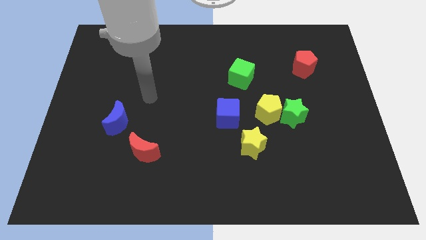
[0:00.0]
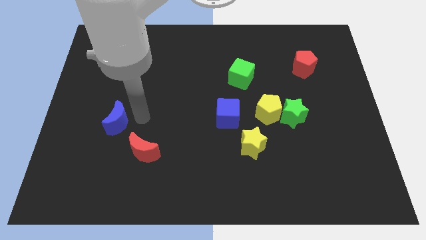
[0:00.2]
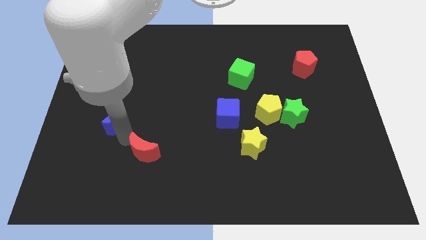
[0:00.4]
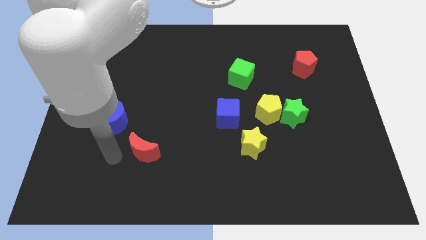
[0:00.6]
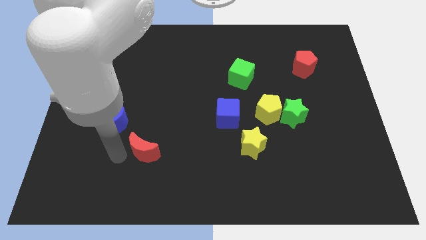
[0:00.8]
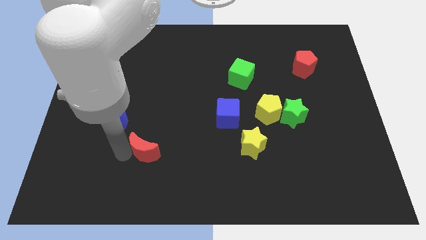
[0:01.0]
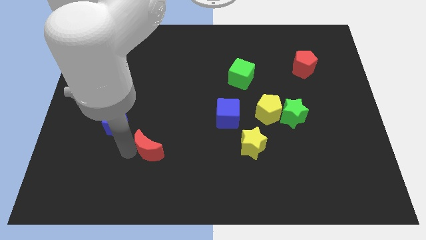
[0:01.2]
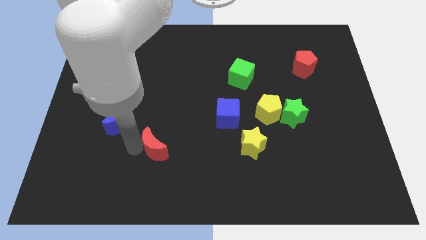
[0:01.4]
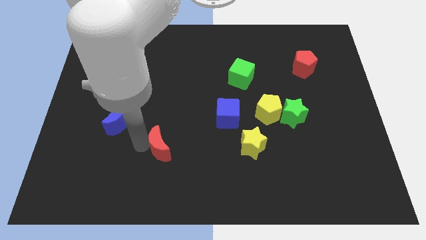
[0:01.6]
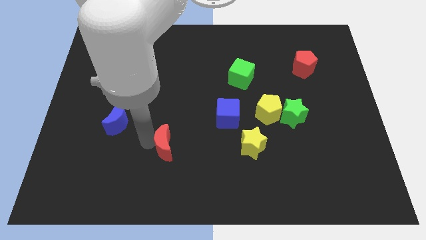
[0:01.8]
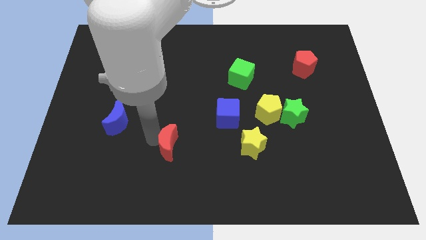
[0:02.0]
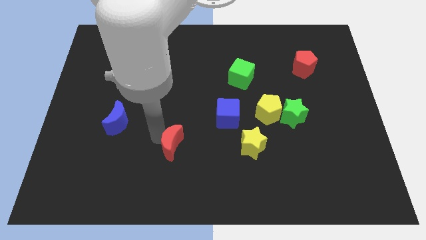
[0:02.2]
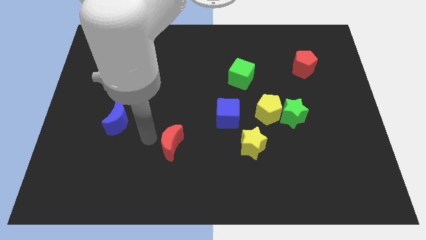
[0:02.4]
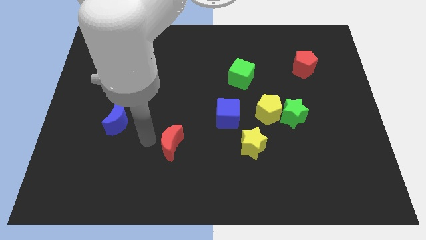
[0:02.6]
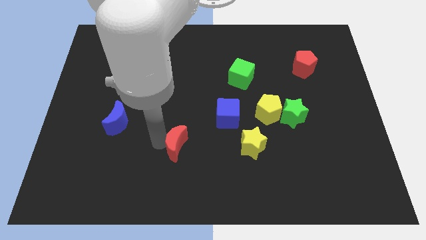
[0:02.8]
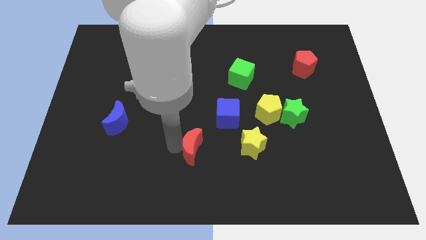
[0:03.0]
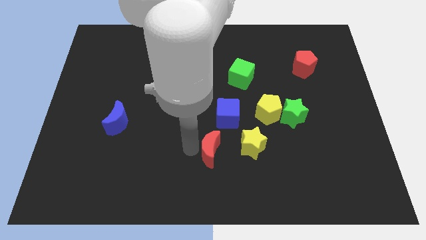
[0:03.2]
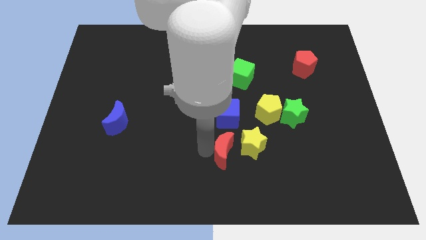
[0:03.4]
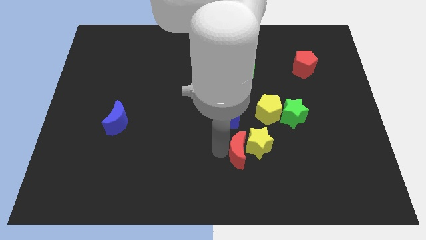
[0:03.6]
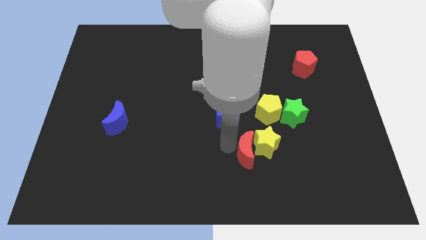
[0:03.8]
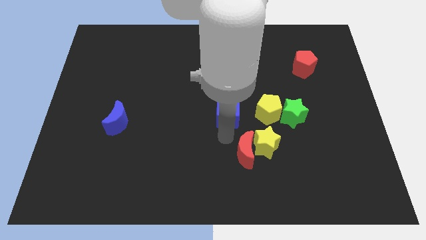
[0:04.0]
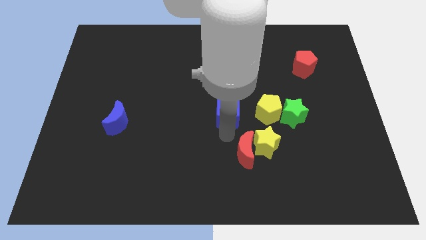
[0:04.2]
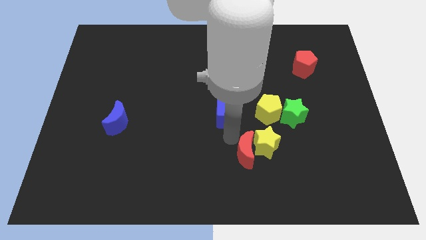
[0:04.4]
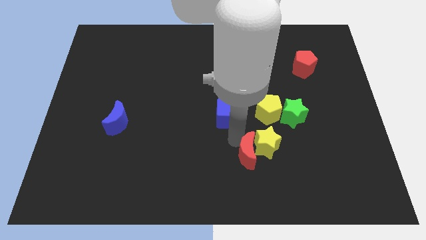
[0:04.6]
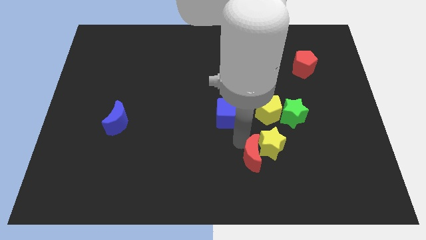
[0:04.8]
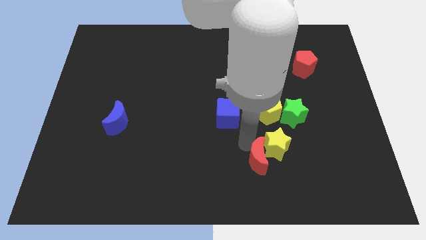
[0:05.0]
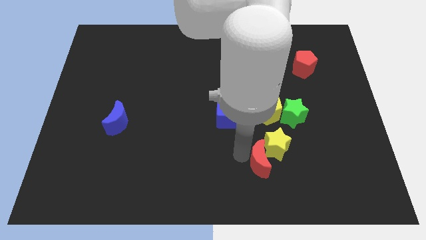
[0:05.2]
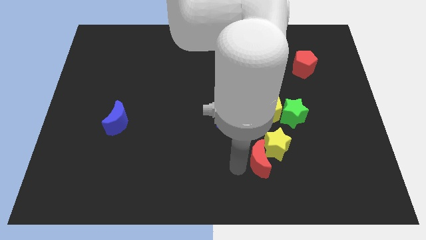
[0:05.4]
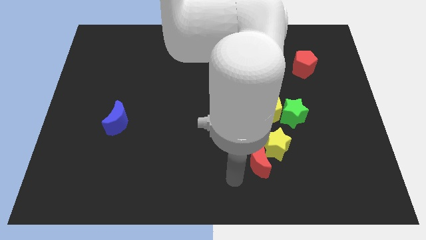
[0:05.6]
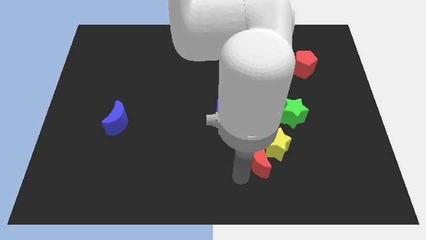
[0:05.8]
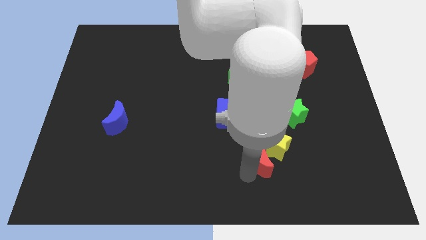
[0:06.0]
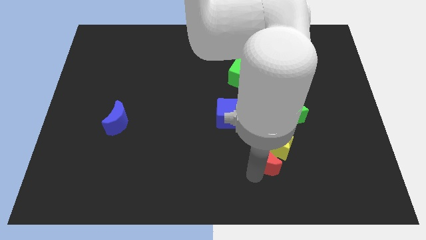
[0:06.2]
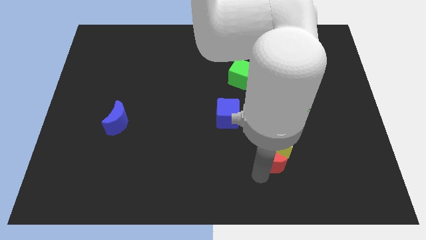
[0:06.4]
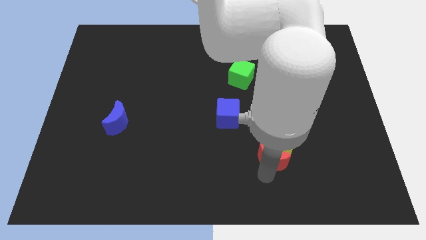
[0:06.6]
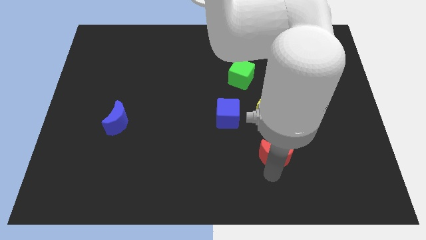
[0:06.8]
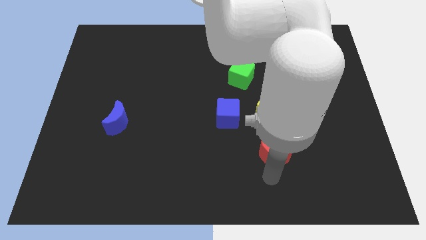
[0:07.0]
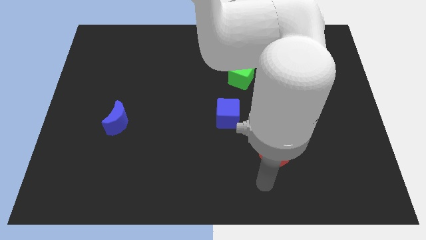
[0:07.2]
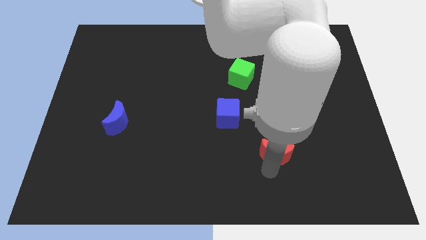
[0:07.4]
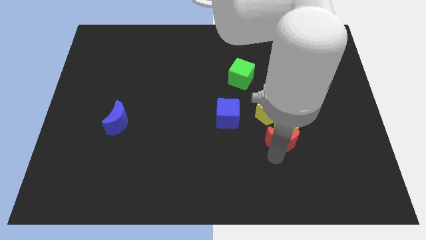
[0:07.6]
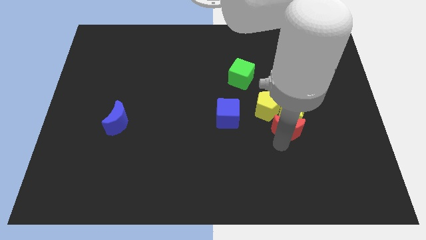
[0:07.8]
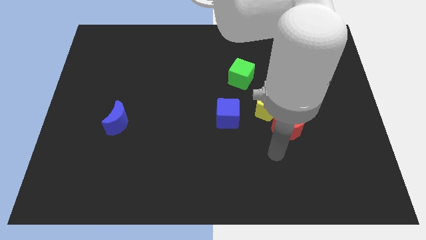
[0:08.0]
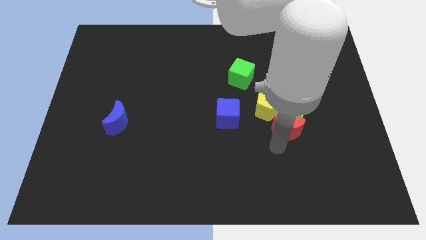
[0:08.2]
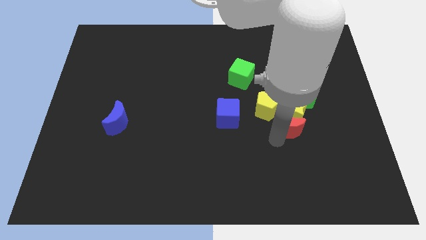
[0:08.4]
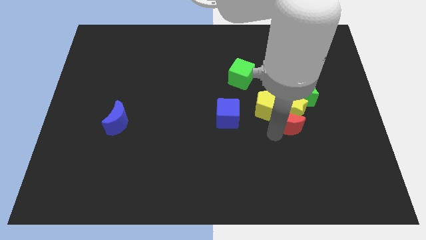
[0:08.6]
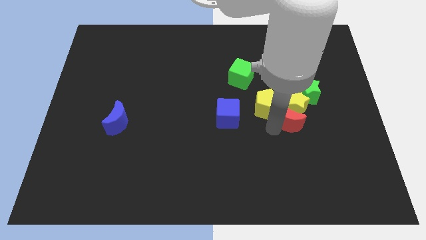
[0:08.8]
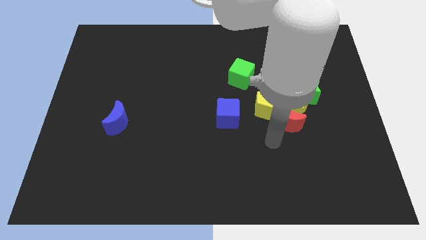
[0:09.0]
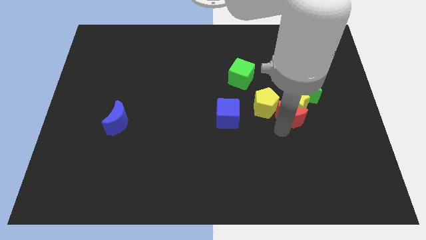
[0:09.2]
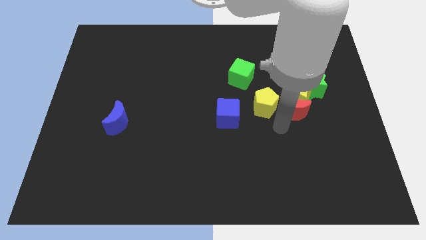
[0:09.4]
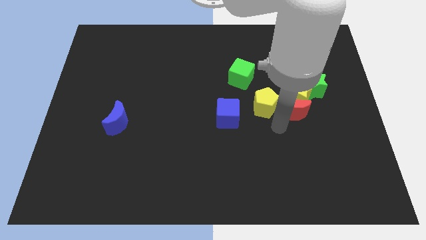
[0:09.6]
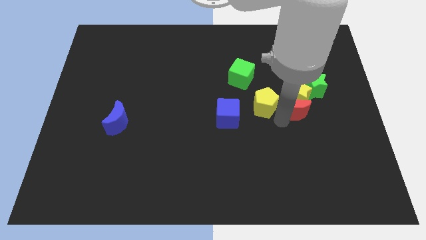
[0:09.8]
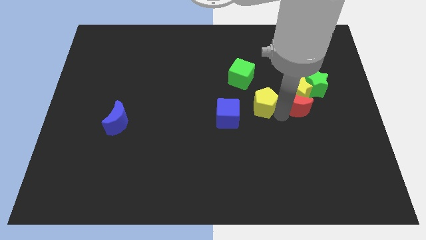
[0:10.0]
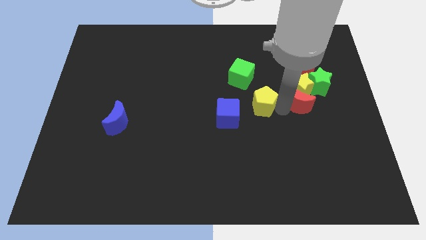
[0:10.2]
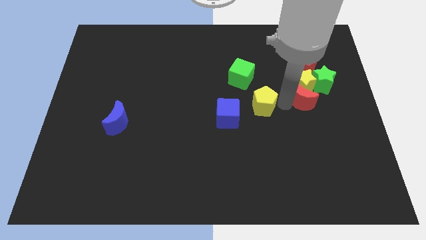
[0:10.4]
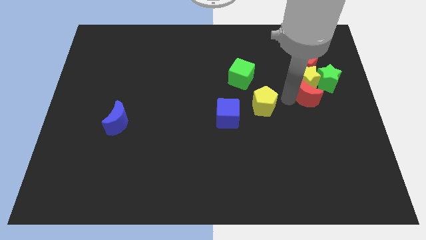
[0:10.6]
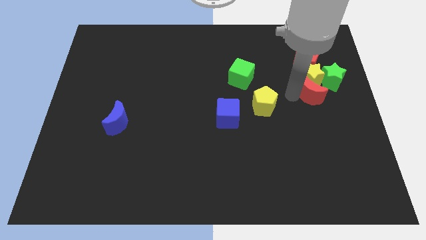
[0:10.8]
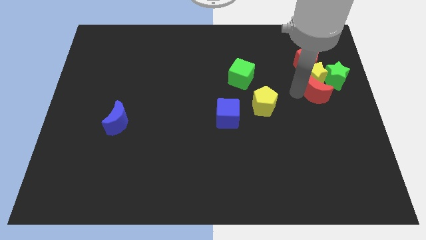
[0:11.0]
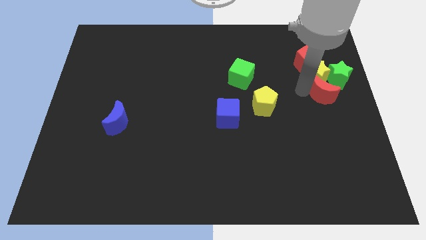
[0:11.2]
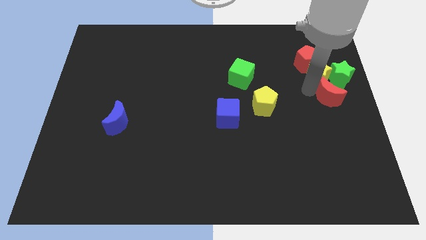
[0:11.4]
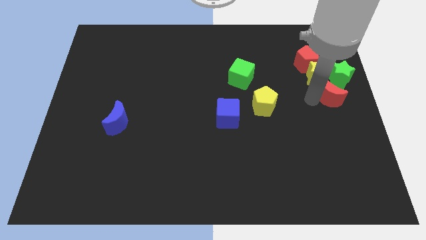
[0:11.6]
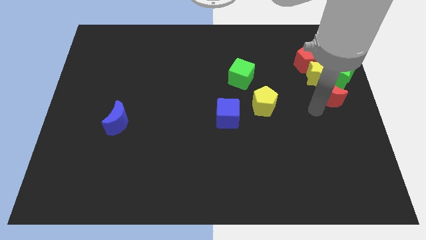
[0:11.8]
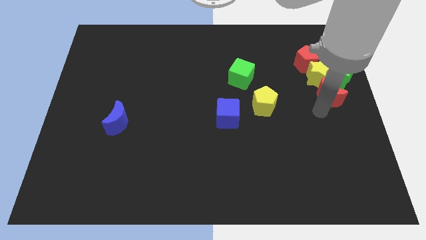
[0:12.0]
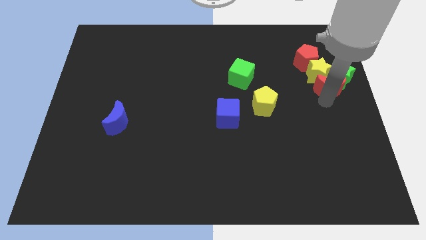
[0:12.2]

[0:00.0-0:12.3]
move the red moon next to the green star
